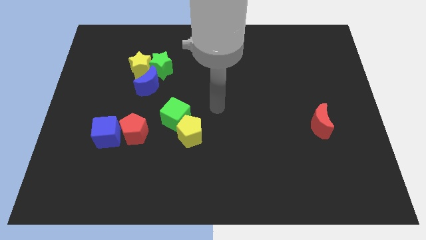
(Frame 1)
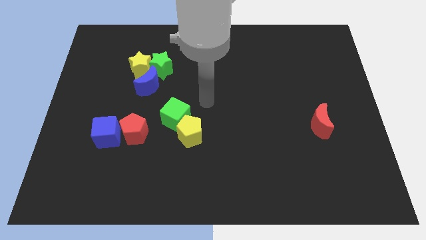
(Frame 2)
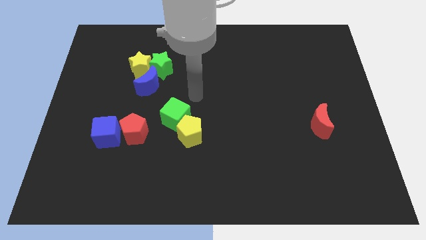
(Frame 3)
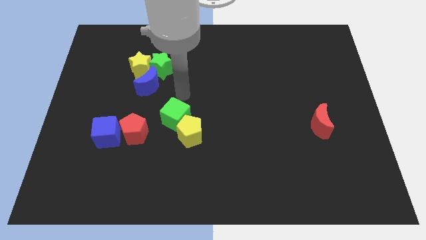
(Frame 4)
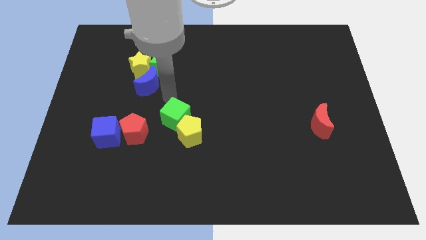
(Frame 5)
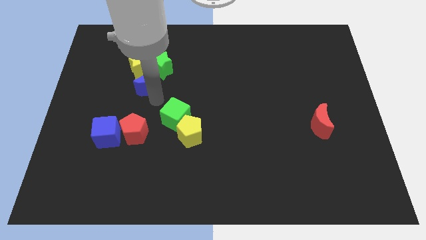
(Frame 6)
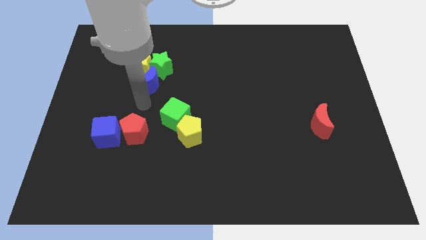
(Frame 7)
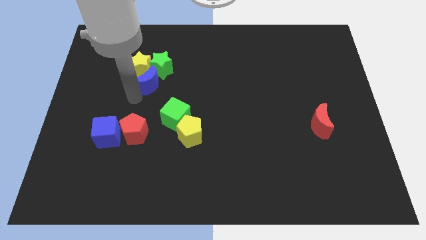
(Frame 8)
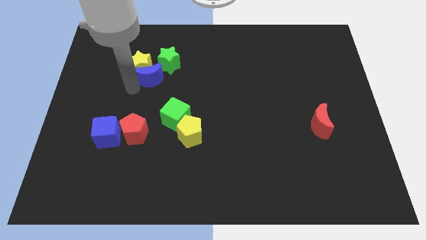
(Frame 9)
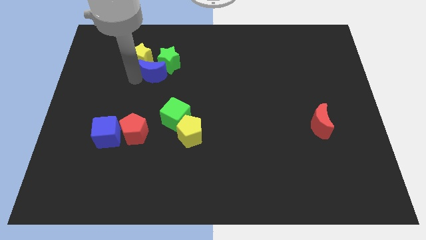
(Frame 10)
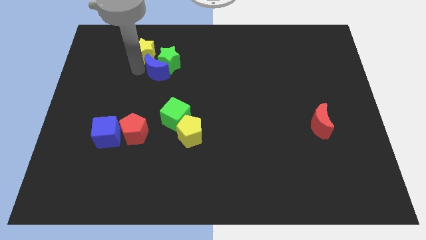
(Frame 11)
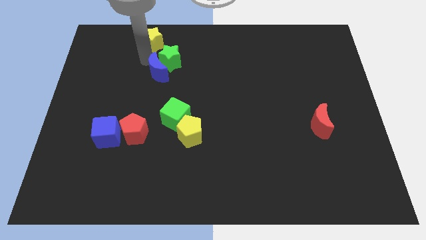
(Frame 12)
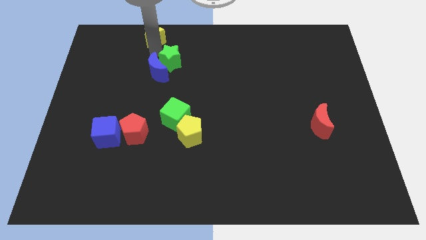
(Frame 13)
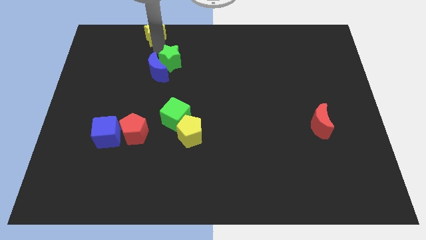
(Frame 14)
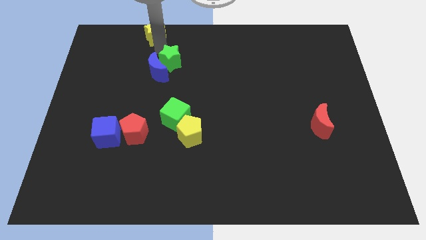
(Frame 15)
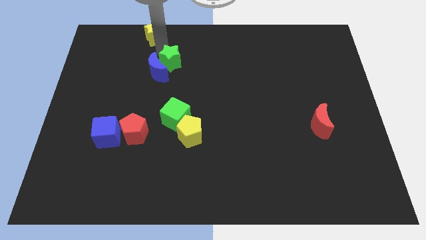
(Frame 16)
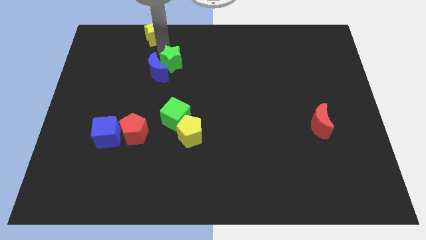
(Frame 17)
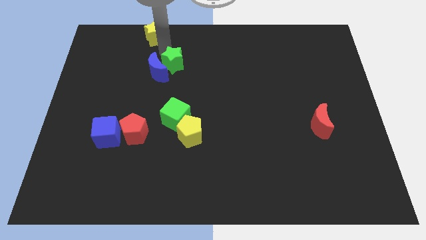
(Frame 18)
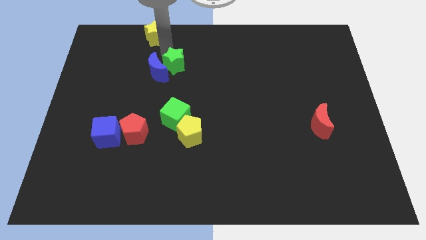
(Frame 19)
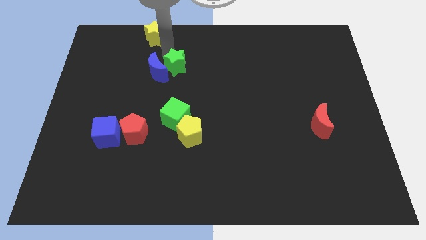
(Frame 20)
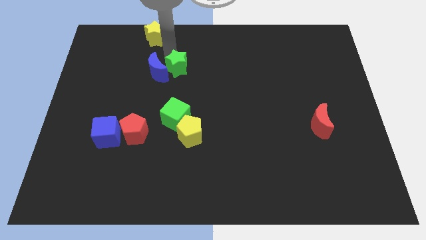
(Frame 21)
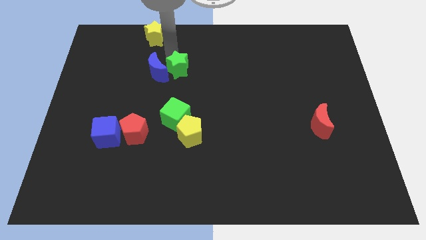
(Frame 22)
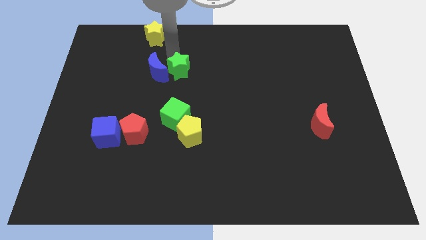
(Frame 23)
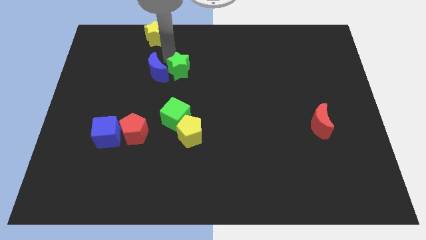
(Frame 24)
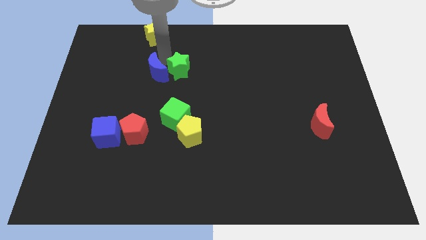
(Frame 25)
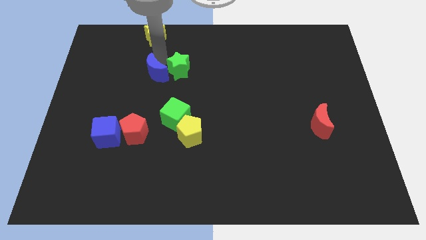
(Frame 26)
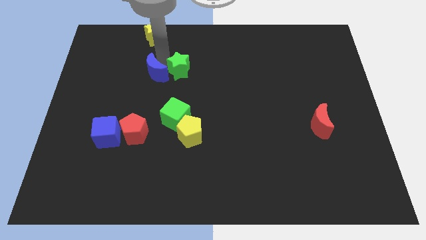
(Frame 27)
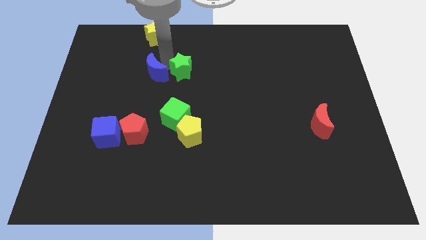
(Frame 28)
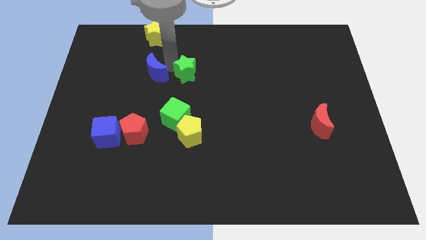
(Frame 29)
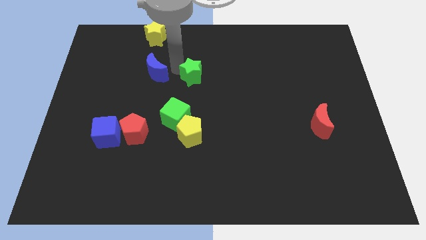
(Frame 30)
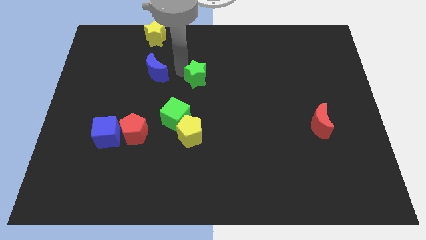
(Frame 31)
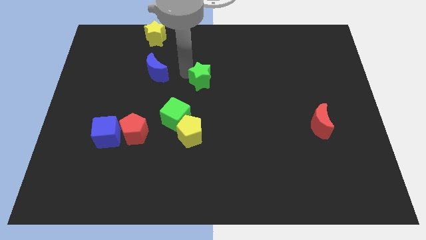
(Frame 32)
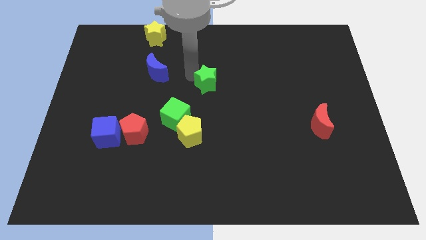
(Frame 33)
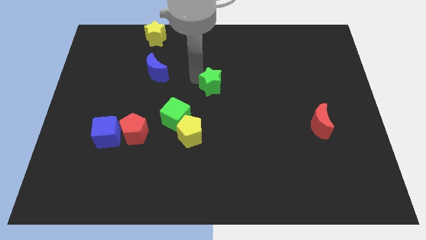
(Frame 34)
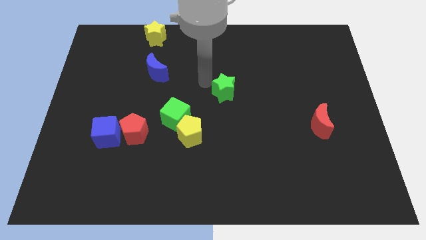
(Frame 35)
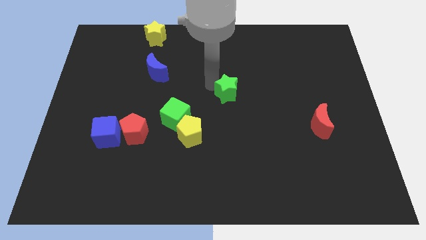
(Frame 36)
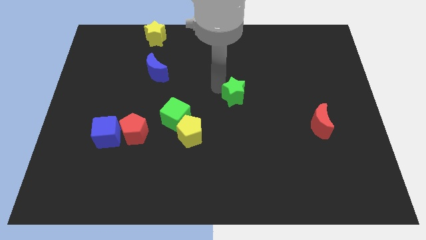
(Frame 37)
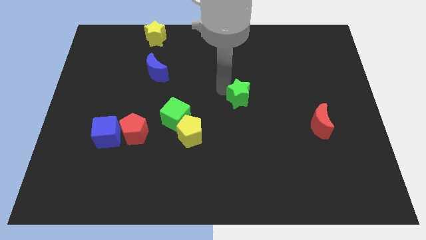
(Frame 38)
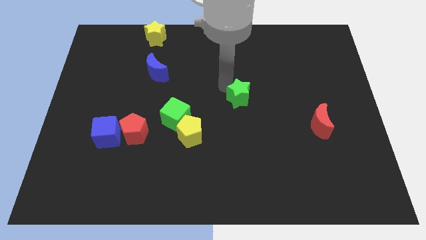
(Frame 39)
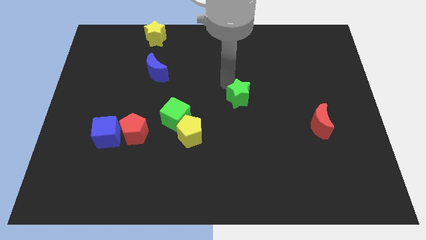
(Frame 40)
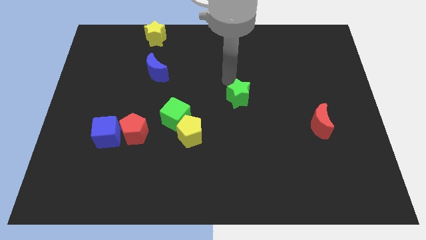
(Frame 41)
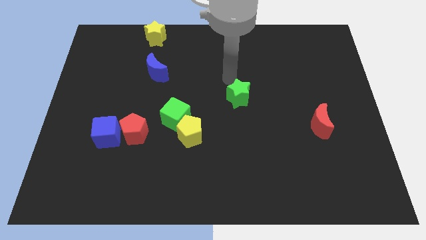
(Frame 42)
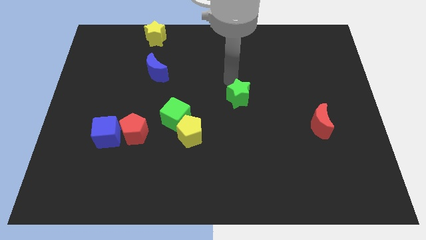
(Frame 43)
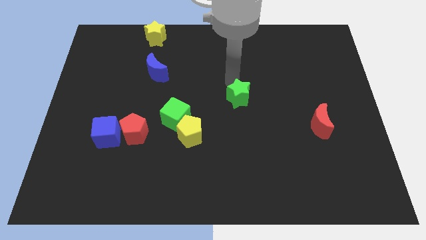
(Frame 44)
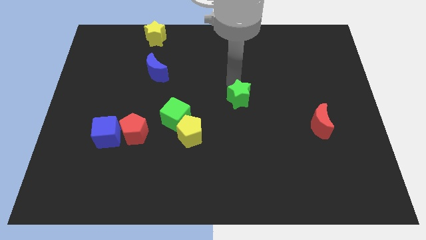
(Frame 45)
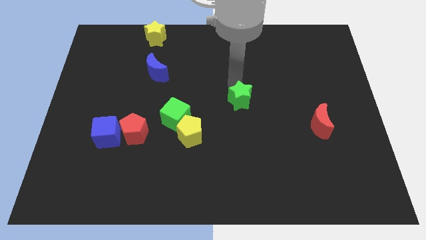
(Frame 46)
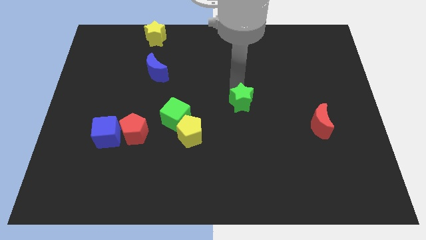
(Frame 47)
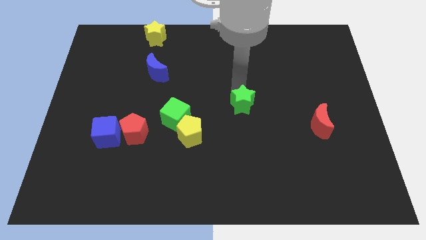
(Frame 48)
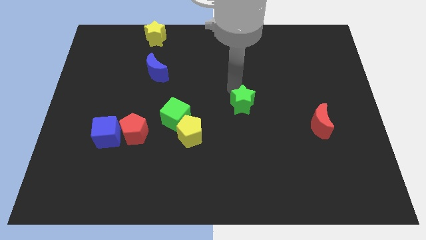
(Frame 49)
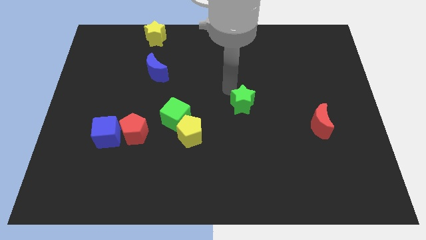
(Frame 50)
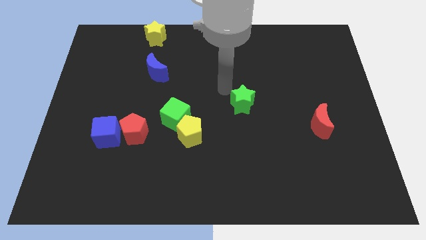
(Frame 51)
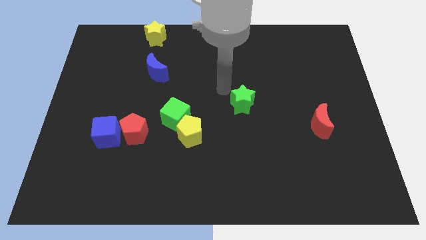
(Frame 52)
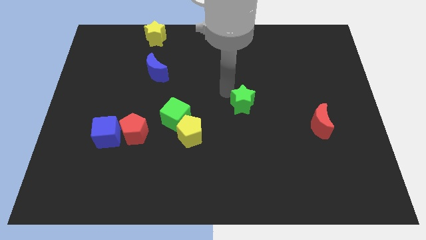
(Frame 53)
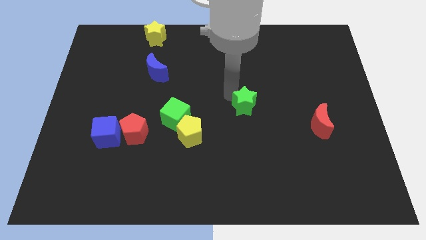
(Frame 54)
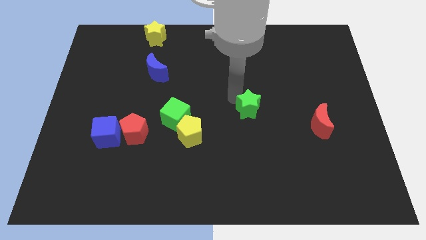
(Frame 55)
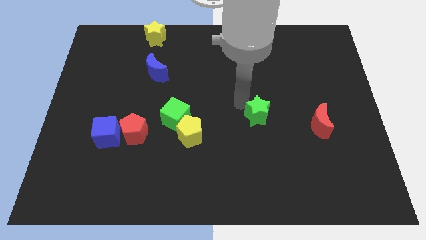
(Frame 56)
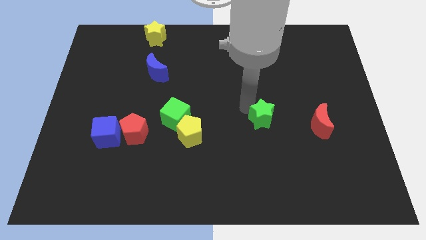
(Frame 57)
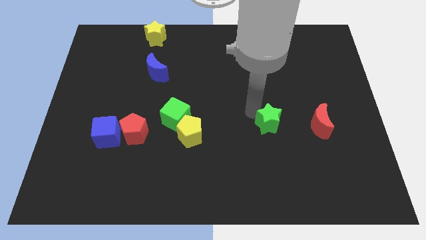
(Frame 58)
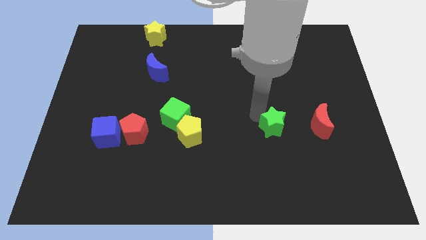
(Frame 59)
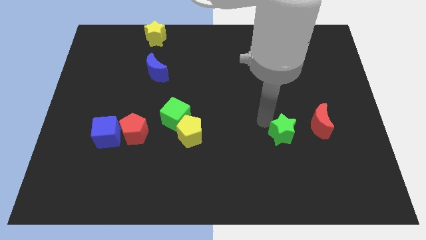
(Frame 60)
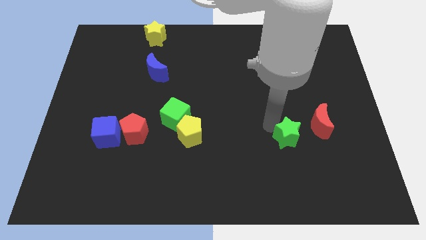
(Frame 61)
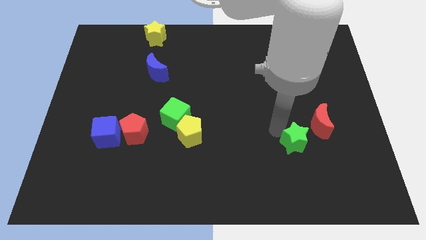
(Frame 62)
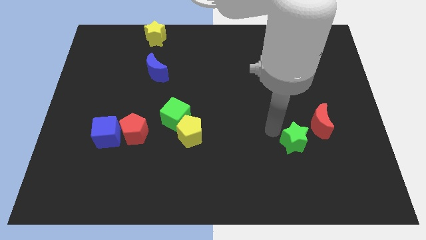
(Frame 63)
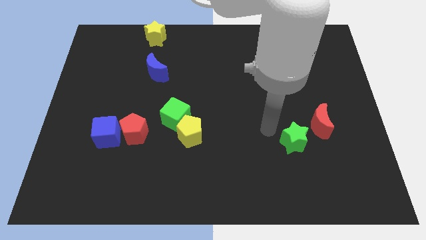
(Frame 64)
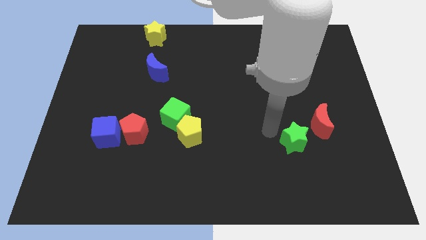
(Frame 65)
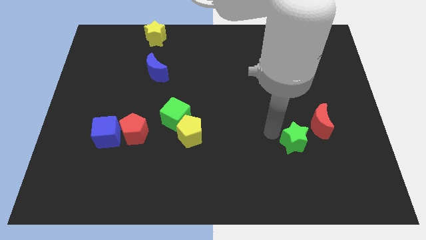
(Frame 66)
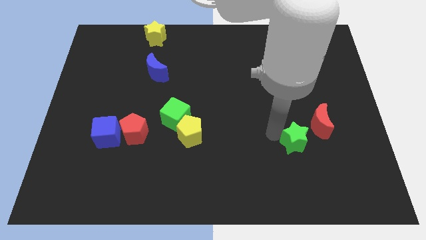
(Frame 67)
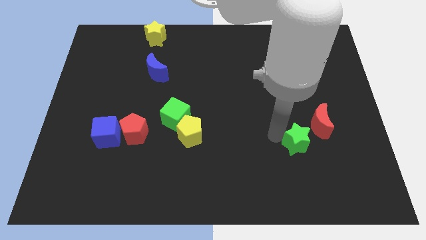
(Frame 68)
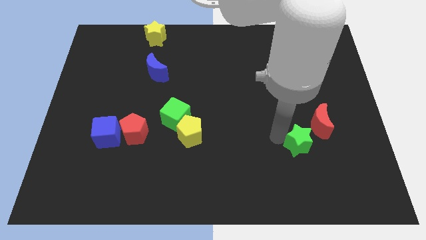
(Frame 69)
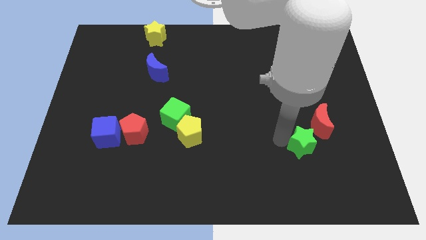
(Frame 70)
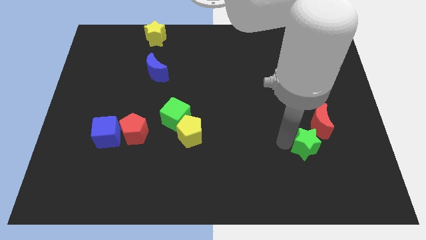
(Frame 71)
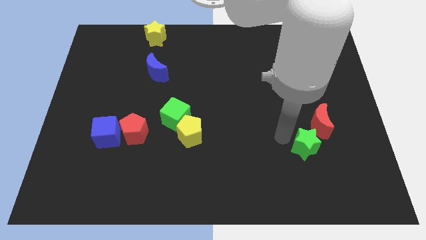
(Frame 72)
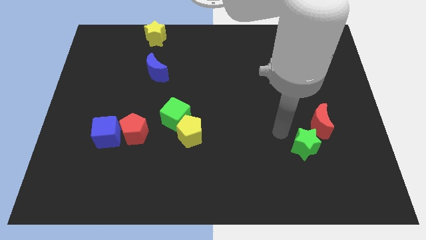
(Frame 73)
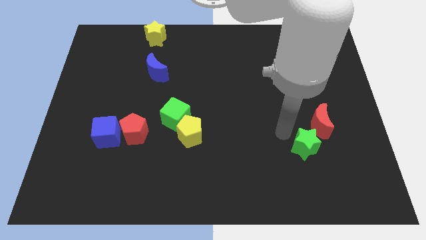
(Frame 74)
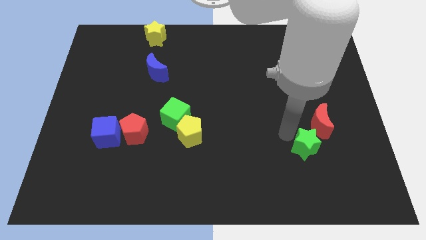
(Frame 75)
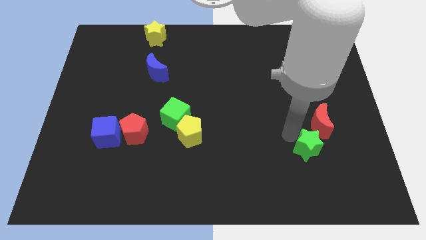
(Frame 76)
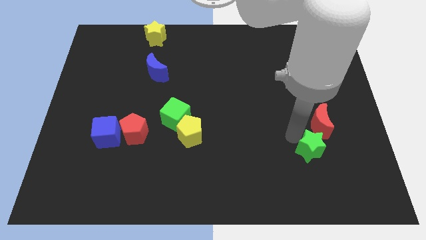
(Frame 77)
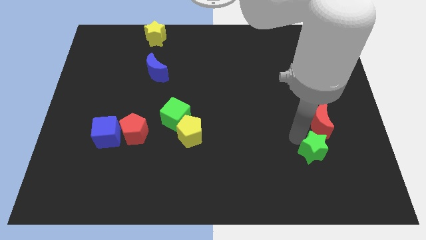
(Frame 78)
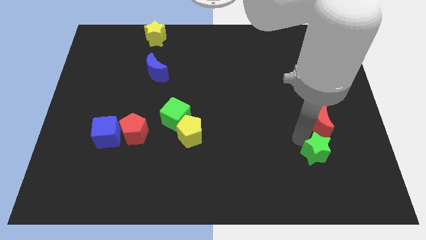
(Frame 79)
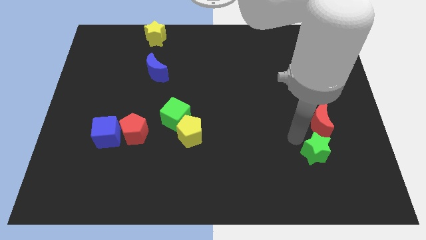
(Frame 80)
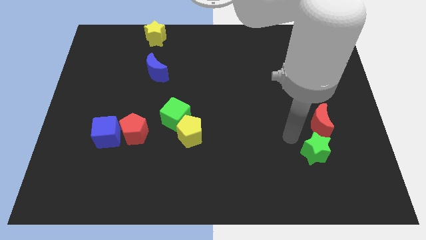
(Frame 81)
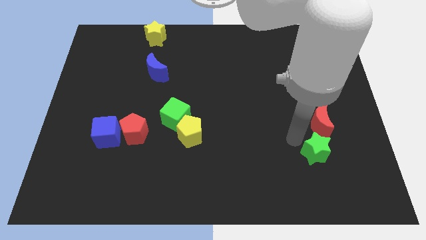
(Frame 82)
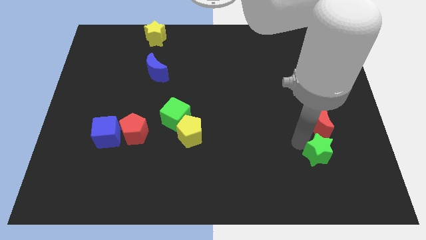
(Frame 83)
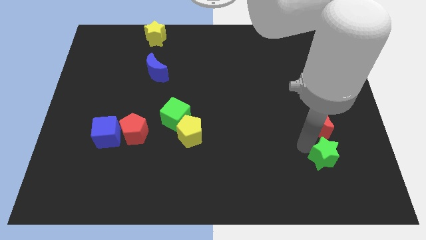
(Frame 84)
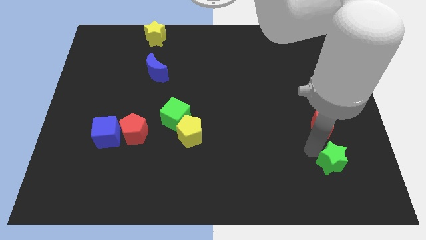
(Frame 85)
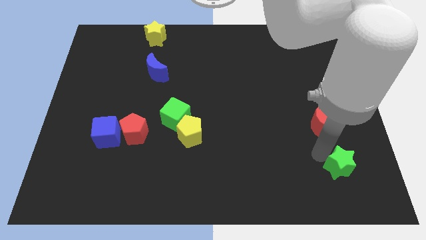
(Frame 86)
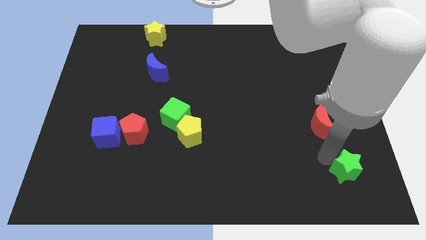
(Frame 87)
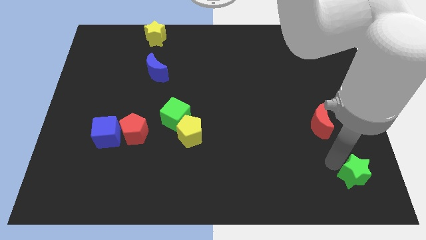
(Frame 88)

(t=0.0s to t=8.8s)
move the green star to the bottom right
